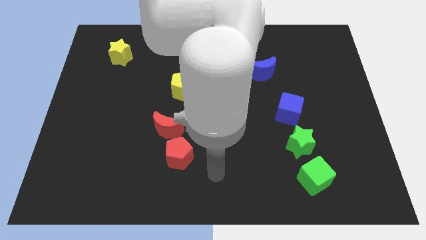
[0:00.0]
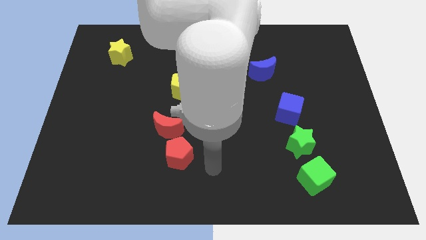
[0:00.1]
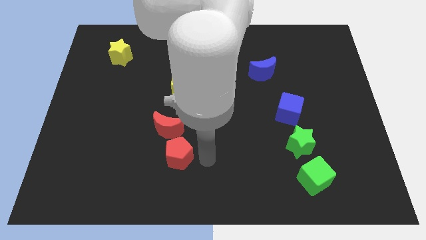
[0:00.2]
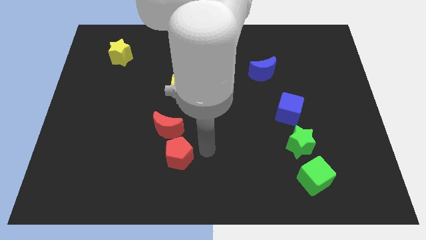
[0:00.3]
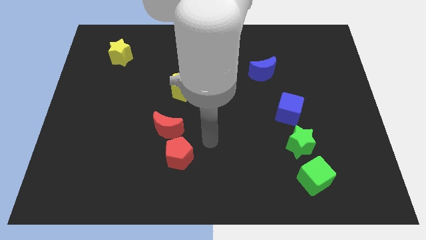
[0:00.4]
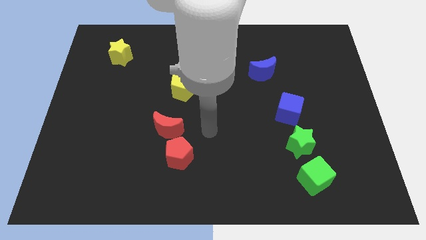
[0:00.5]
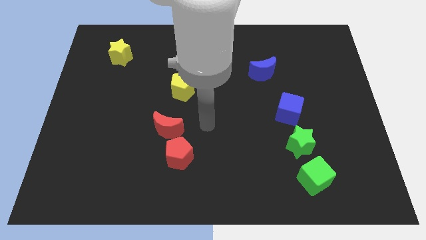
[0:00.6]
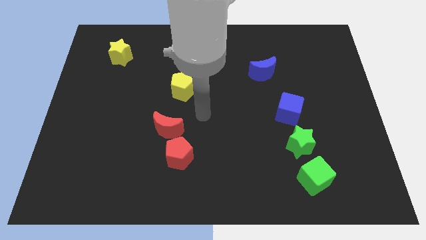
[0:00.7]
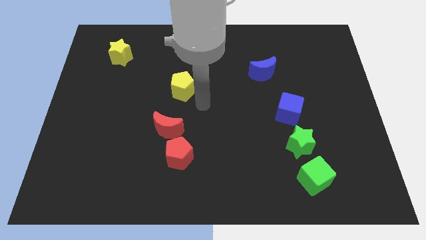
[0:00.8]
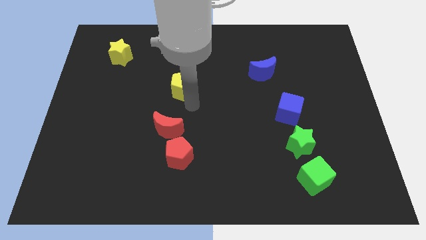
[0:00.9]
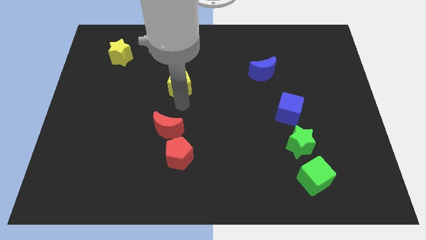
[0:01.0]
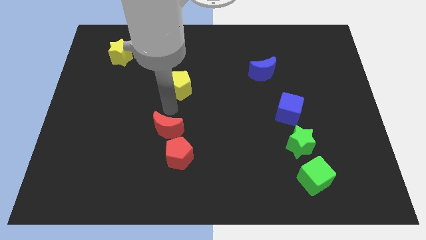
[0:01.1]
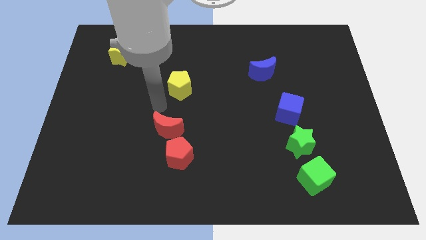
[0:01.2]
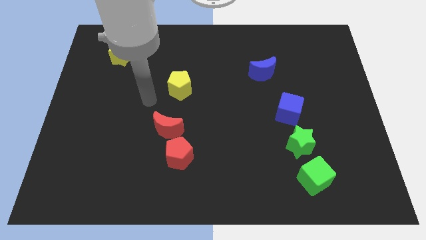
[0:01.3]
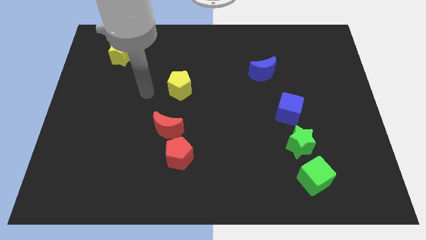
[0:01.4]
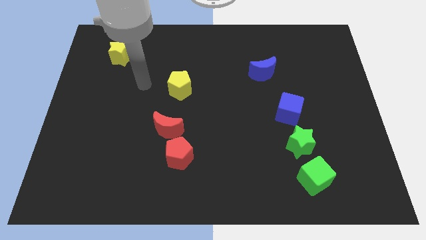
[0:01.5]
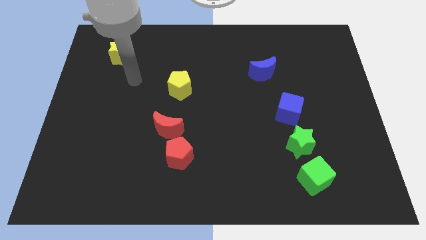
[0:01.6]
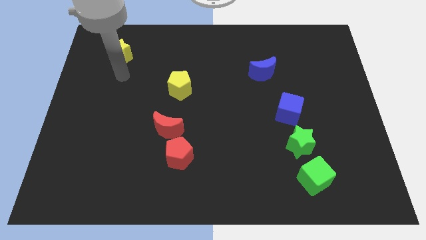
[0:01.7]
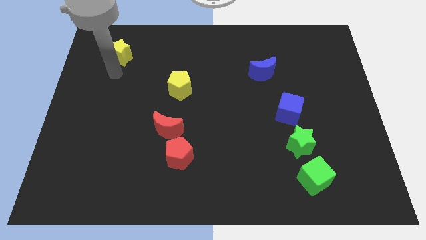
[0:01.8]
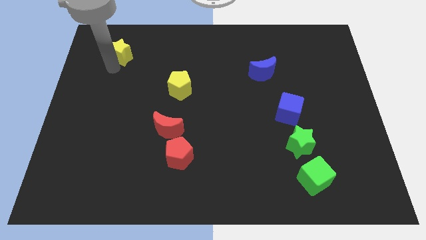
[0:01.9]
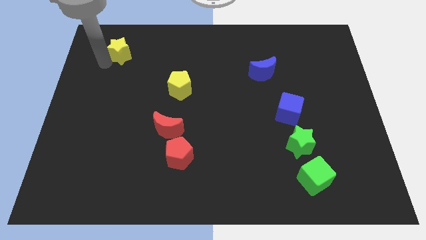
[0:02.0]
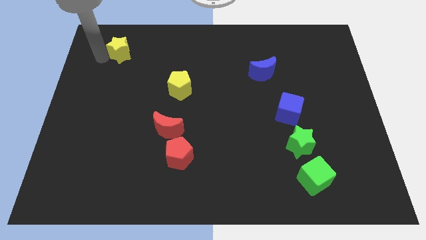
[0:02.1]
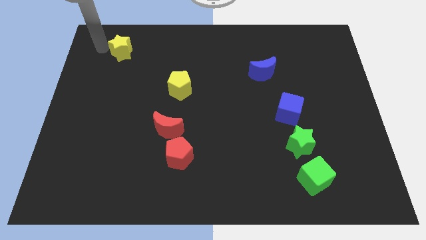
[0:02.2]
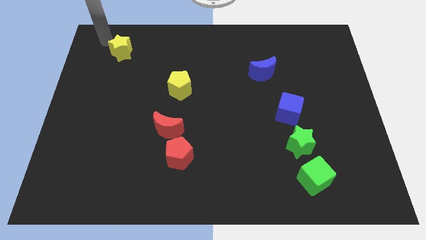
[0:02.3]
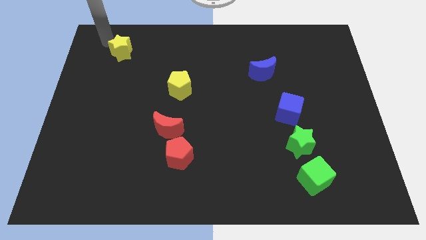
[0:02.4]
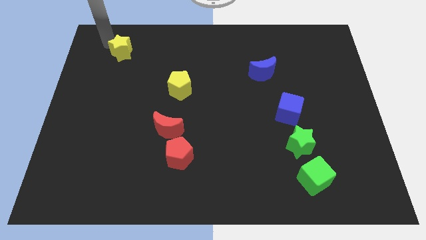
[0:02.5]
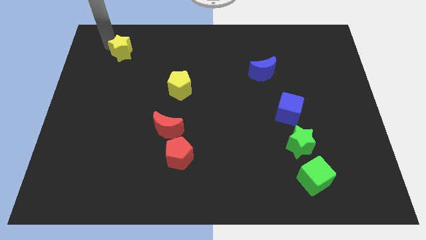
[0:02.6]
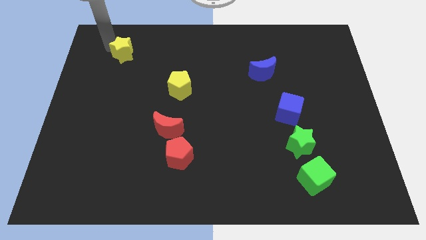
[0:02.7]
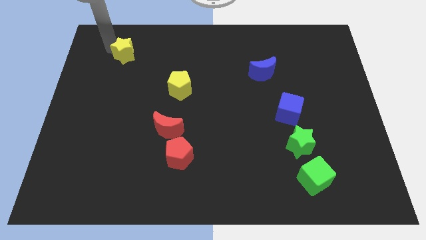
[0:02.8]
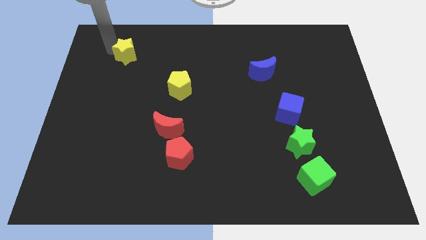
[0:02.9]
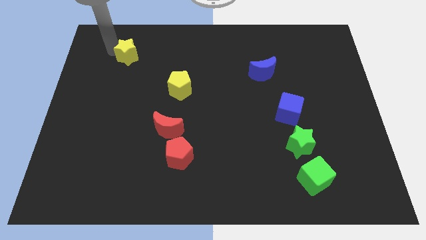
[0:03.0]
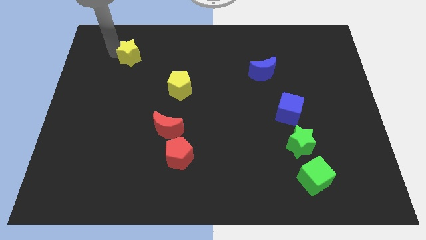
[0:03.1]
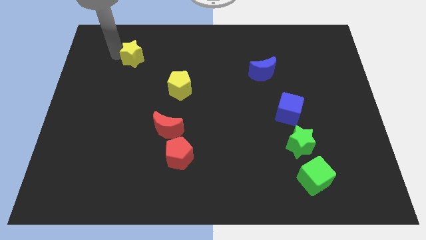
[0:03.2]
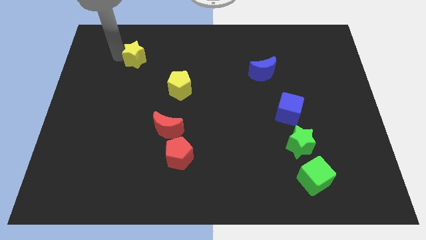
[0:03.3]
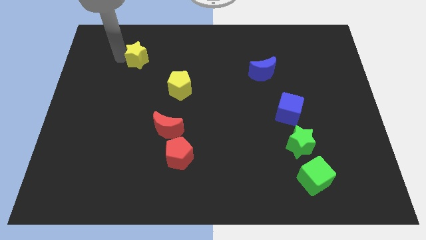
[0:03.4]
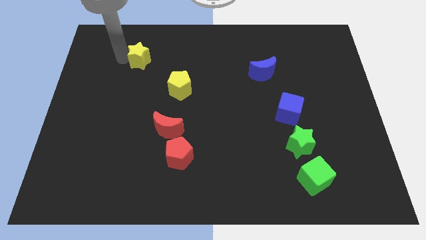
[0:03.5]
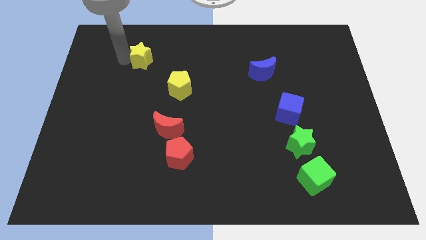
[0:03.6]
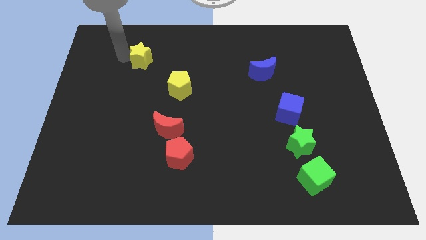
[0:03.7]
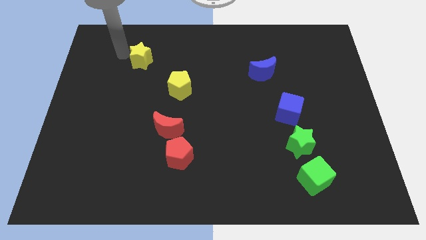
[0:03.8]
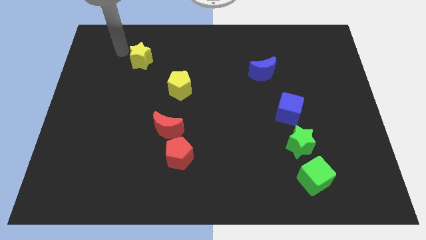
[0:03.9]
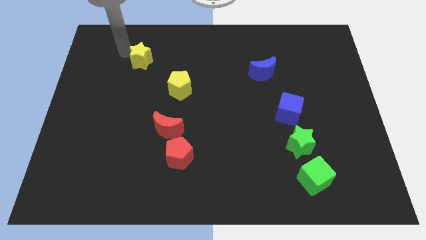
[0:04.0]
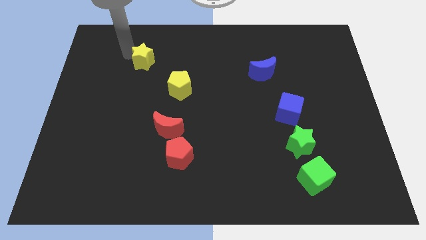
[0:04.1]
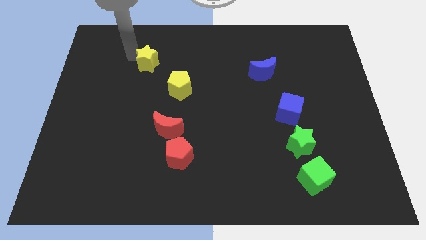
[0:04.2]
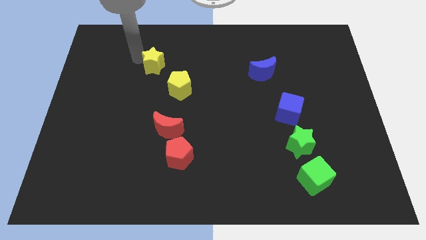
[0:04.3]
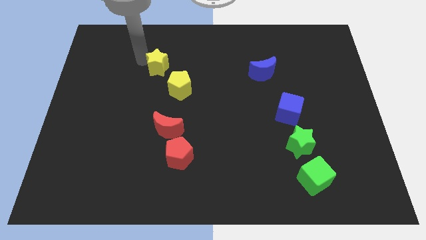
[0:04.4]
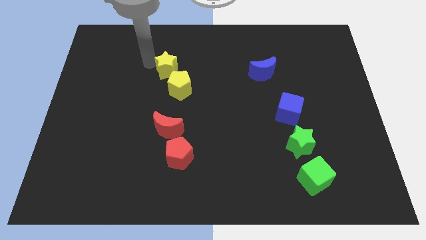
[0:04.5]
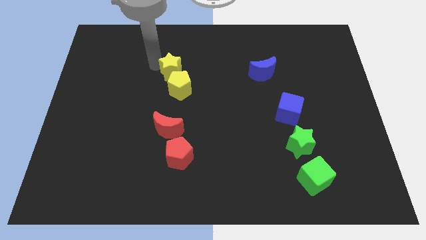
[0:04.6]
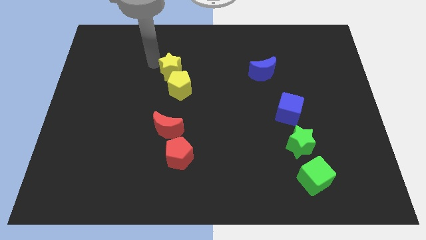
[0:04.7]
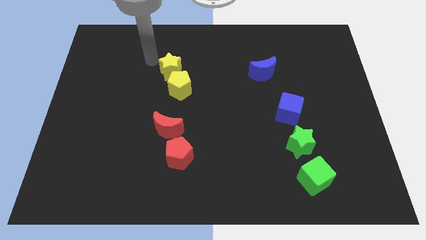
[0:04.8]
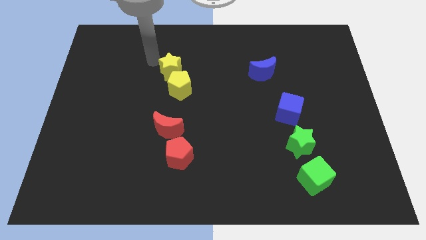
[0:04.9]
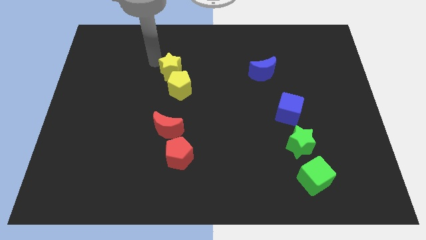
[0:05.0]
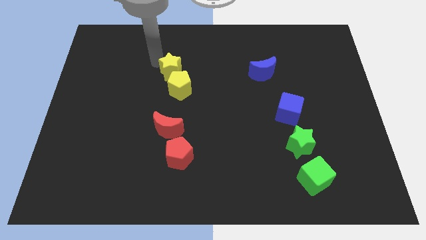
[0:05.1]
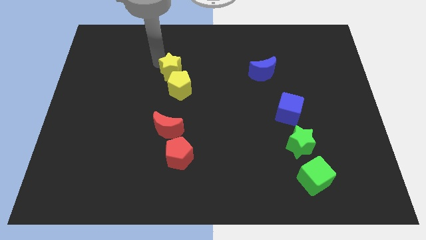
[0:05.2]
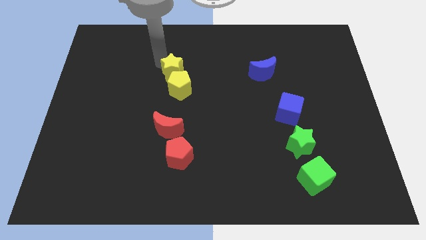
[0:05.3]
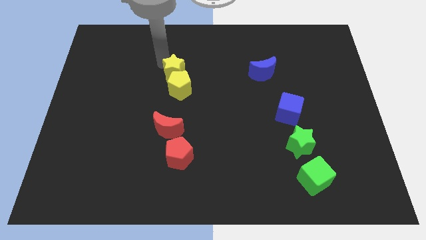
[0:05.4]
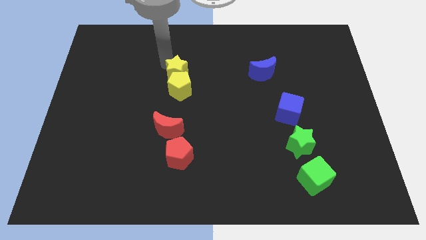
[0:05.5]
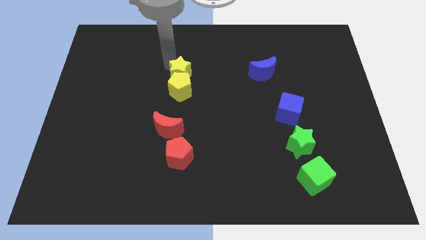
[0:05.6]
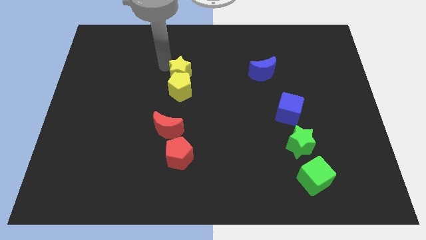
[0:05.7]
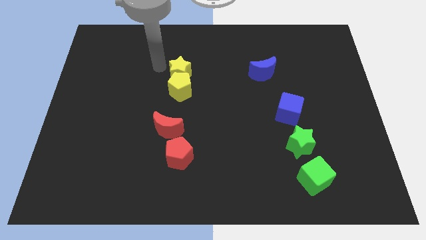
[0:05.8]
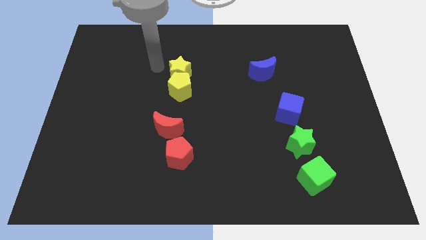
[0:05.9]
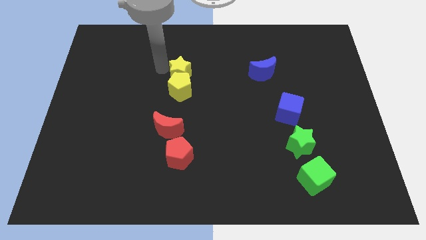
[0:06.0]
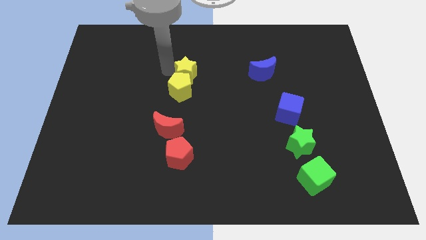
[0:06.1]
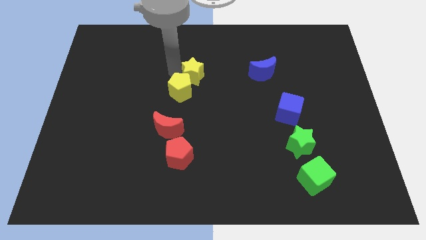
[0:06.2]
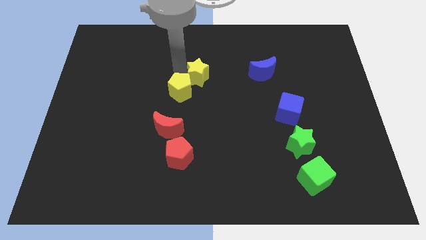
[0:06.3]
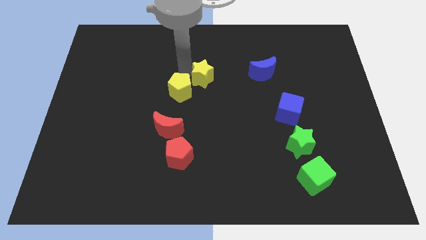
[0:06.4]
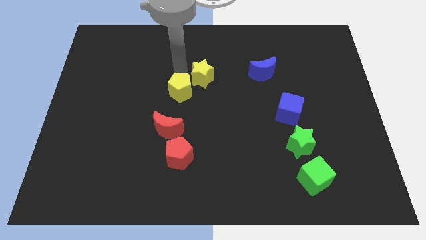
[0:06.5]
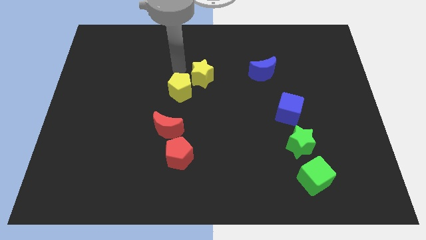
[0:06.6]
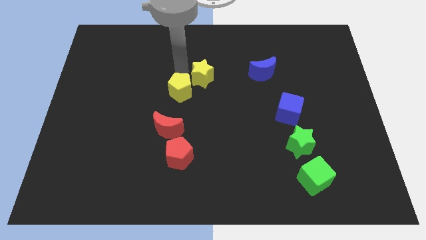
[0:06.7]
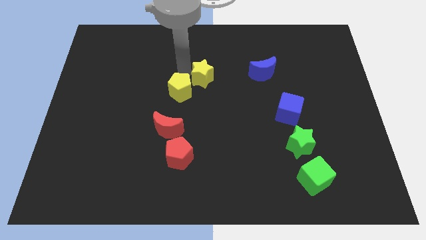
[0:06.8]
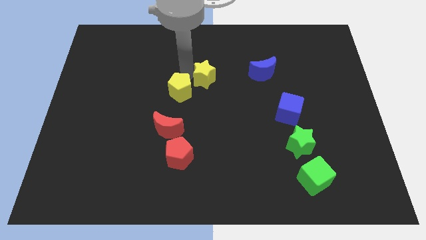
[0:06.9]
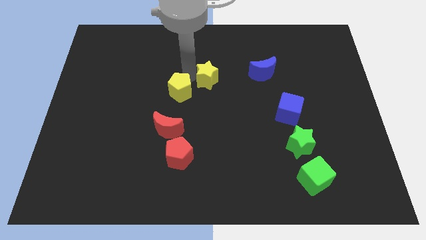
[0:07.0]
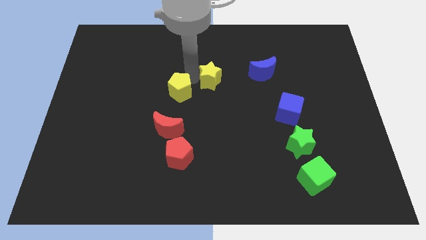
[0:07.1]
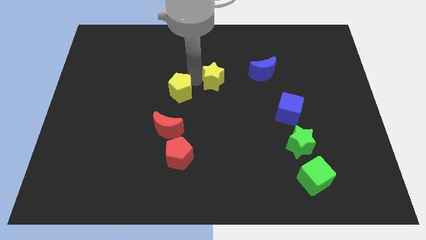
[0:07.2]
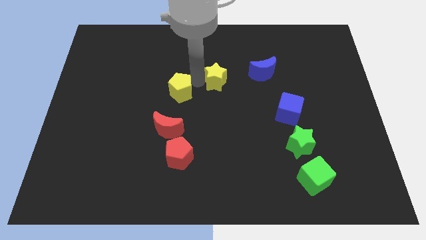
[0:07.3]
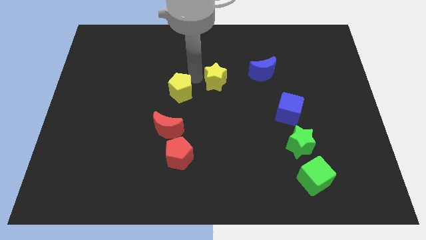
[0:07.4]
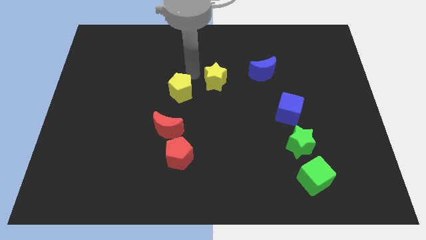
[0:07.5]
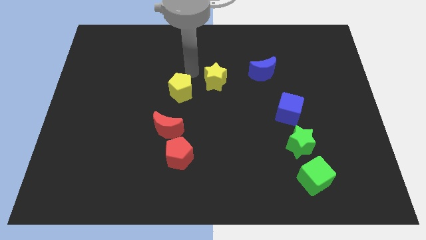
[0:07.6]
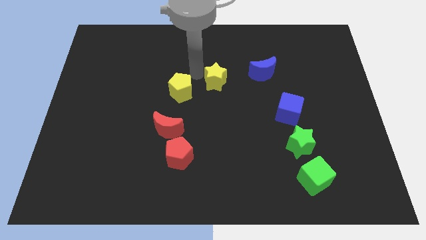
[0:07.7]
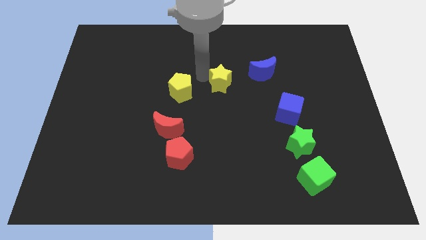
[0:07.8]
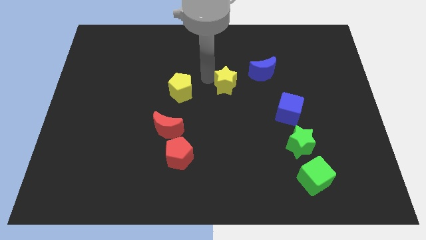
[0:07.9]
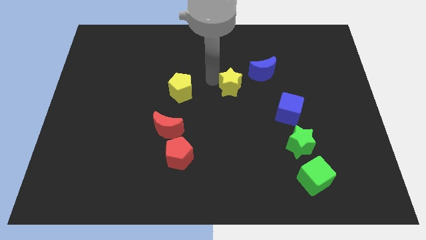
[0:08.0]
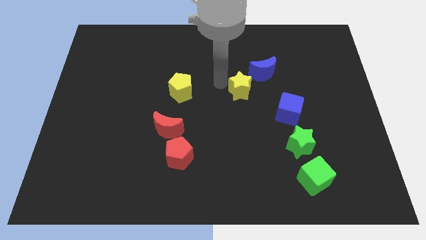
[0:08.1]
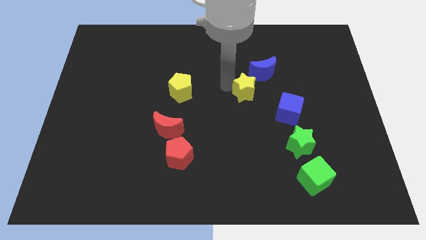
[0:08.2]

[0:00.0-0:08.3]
slide the yellow star to the top left of the blue cube
